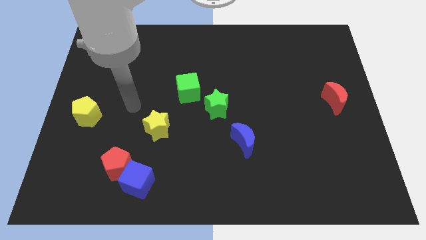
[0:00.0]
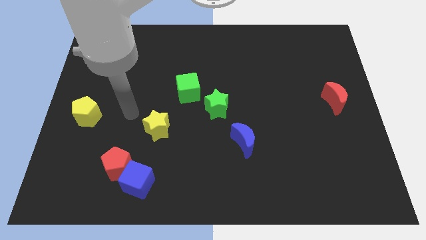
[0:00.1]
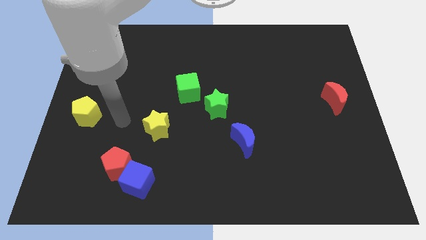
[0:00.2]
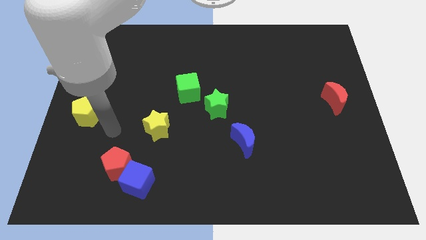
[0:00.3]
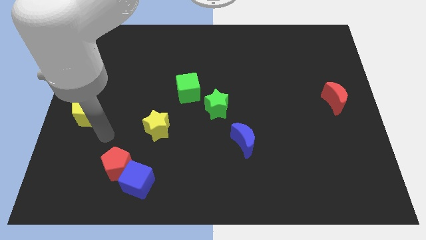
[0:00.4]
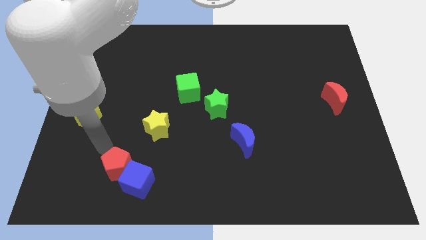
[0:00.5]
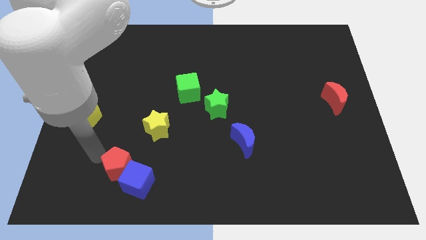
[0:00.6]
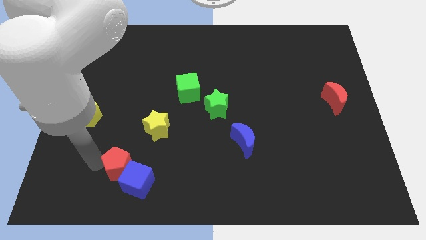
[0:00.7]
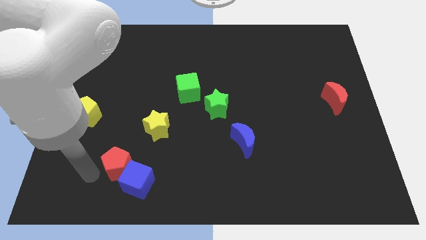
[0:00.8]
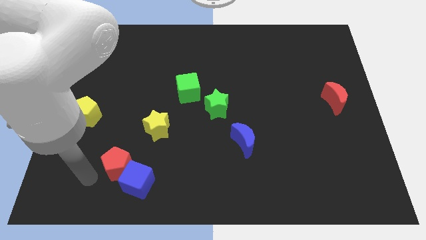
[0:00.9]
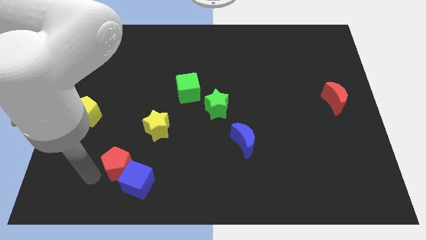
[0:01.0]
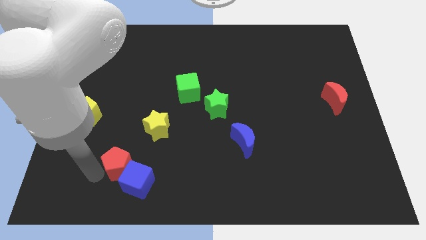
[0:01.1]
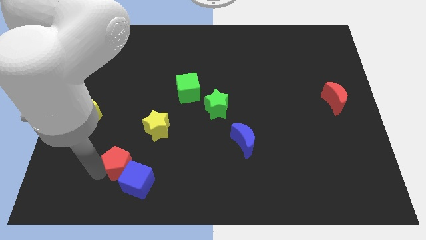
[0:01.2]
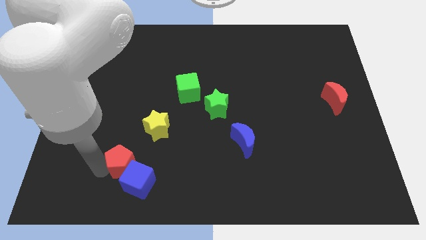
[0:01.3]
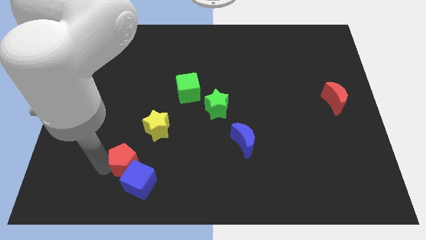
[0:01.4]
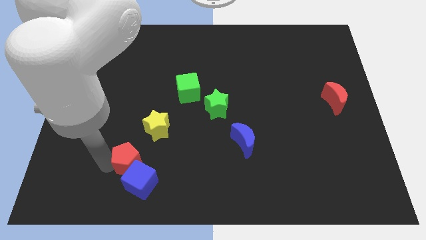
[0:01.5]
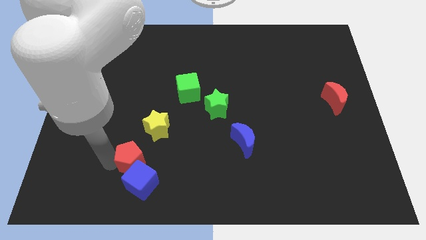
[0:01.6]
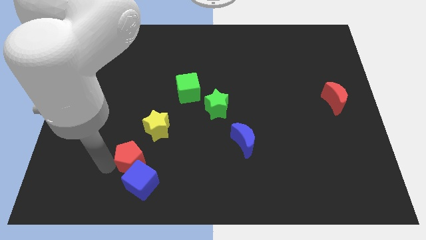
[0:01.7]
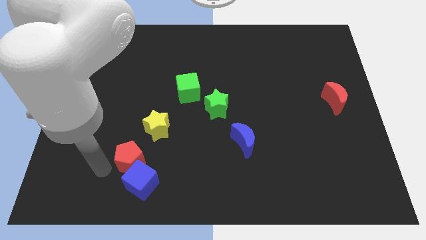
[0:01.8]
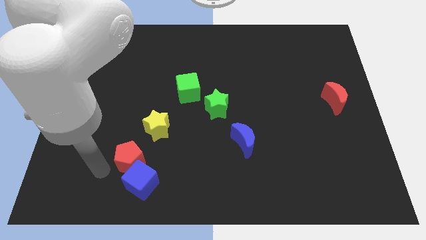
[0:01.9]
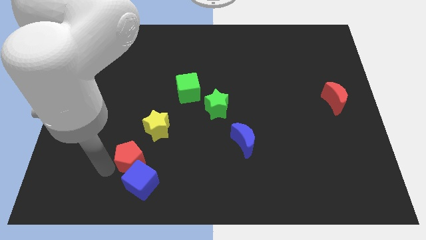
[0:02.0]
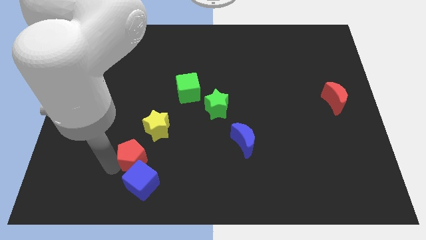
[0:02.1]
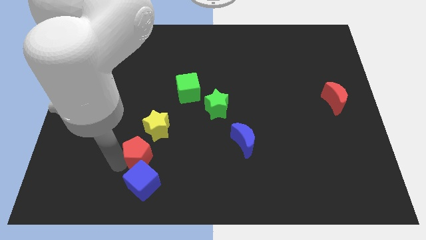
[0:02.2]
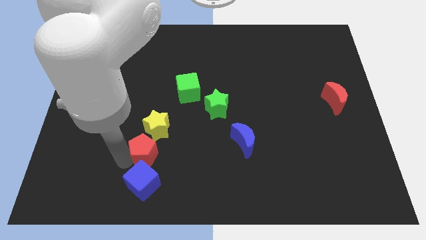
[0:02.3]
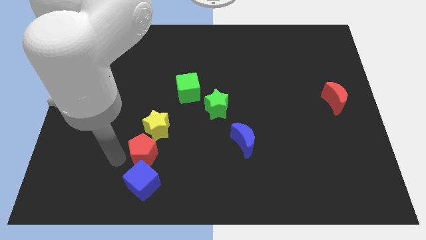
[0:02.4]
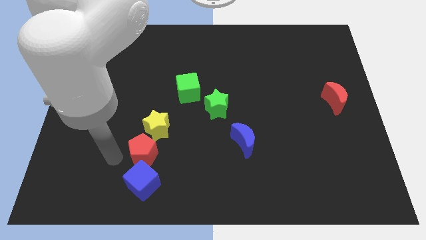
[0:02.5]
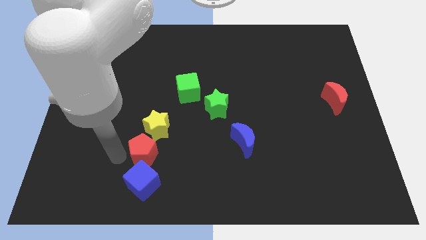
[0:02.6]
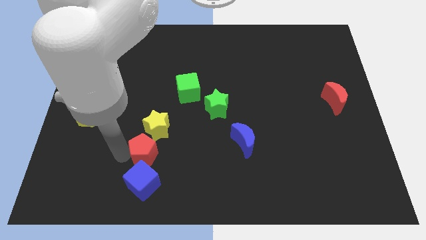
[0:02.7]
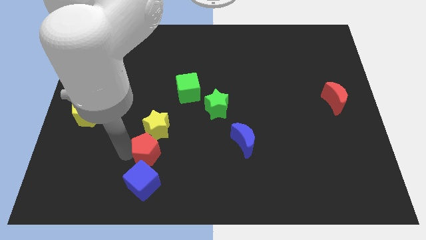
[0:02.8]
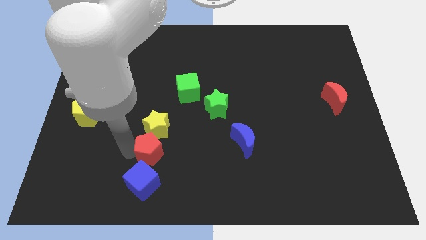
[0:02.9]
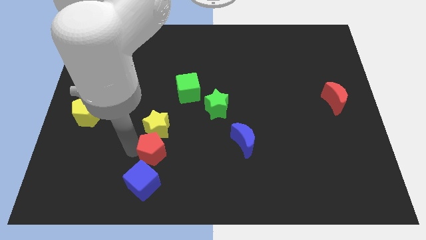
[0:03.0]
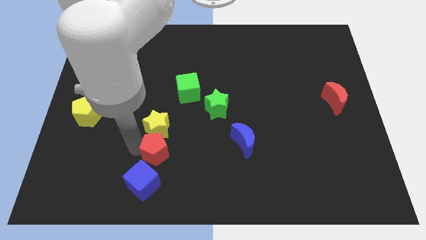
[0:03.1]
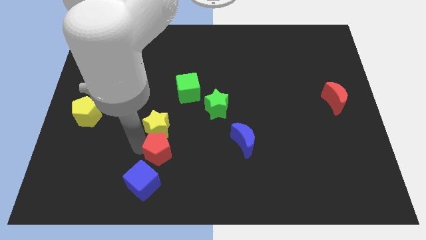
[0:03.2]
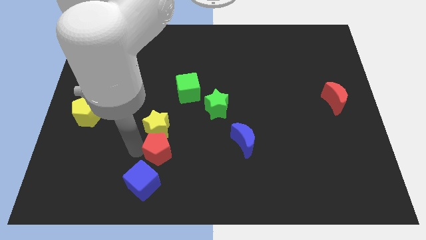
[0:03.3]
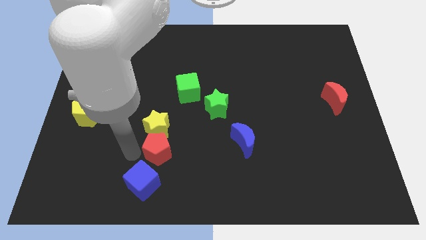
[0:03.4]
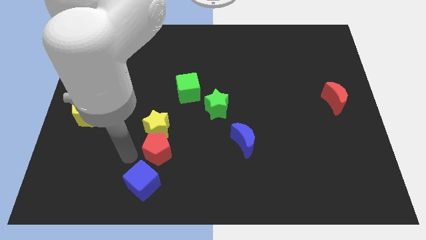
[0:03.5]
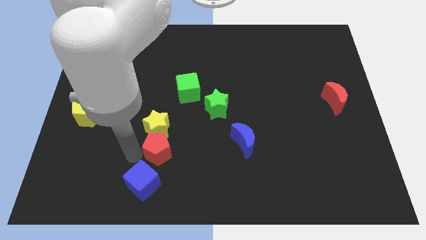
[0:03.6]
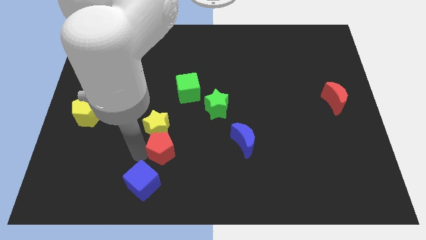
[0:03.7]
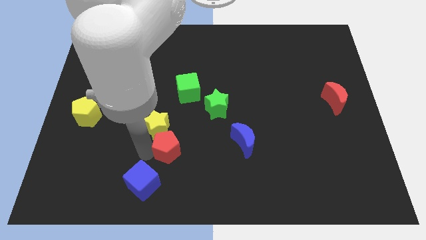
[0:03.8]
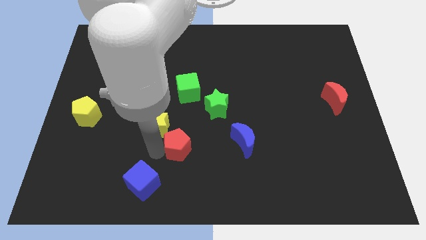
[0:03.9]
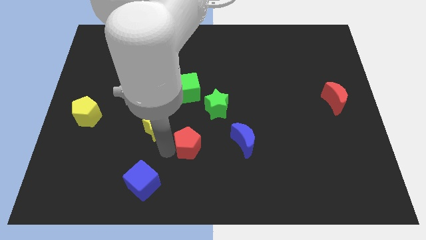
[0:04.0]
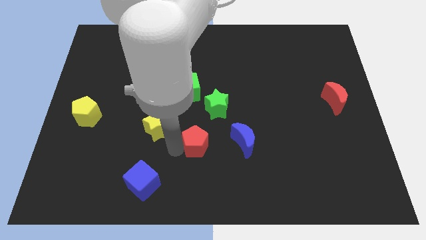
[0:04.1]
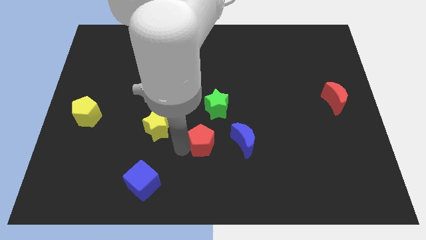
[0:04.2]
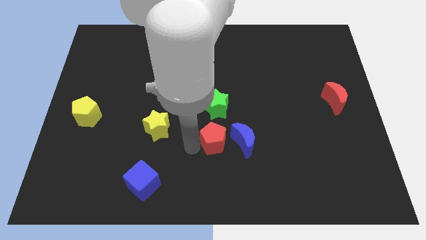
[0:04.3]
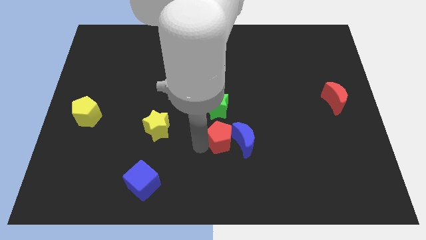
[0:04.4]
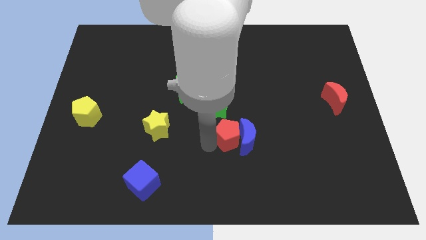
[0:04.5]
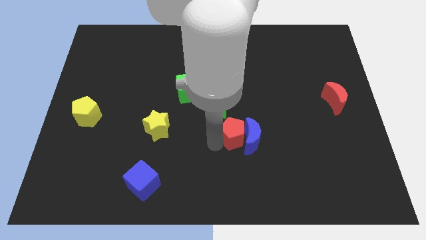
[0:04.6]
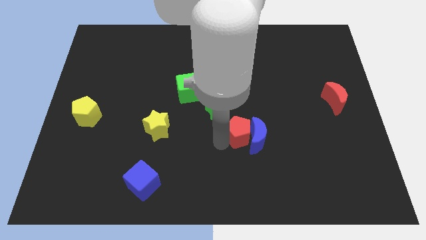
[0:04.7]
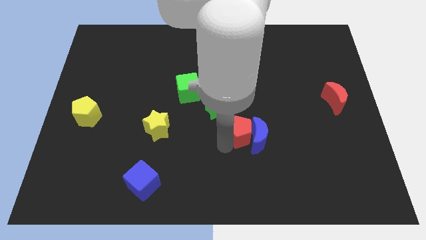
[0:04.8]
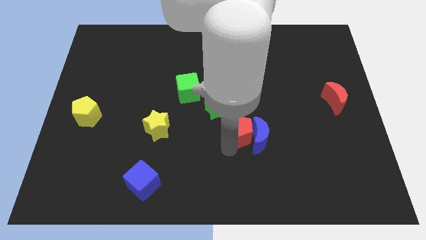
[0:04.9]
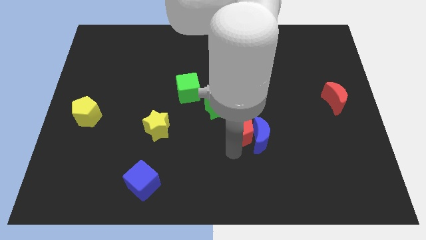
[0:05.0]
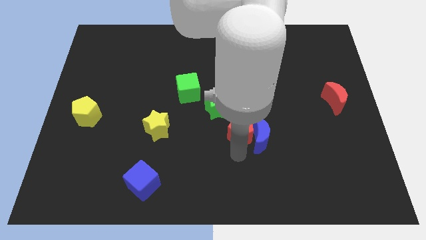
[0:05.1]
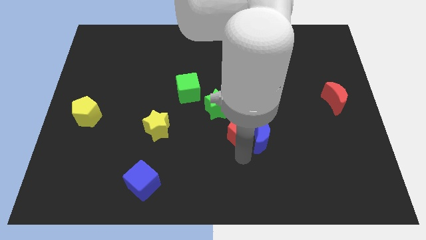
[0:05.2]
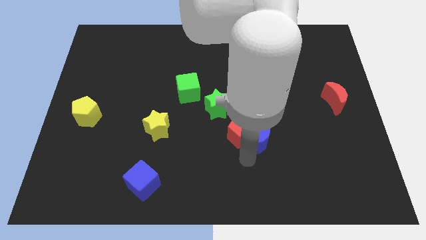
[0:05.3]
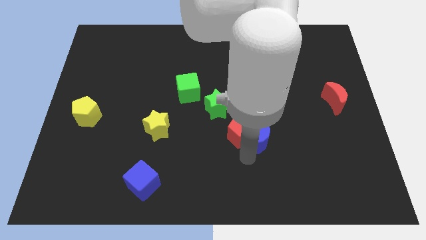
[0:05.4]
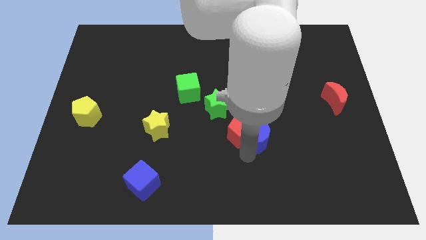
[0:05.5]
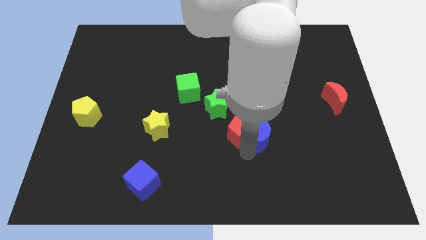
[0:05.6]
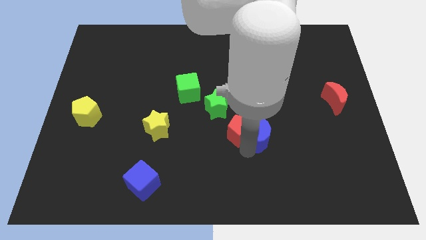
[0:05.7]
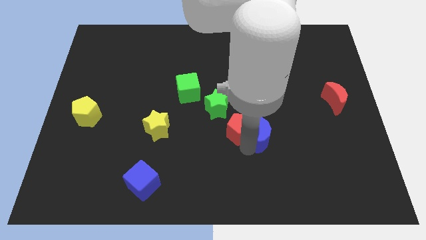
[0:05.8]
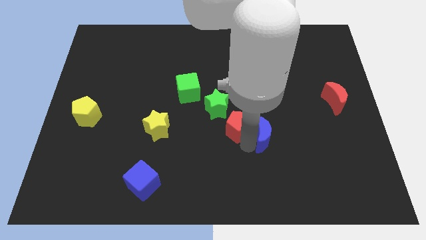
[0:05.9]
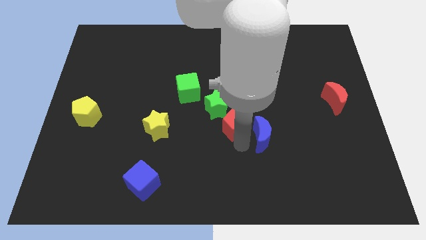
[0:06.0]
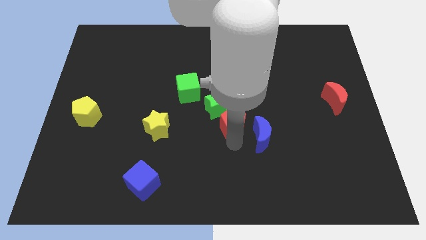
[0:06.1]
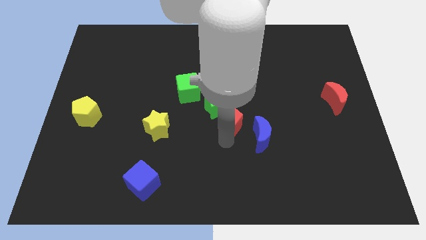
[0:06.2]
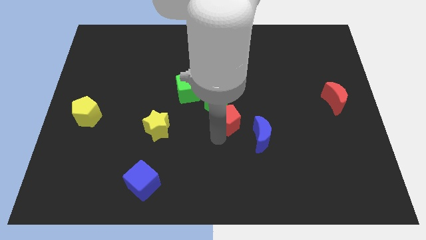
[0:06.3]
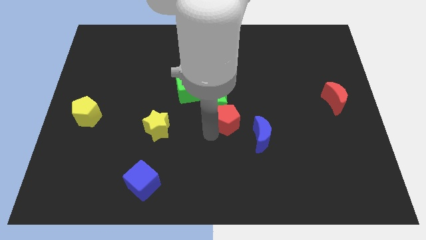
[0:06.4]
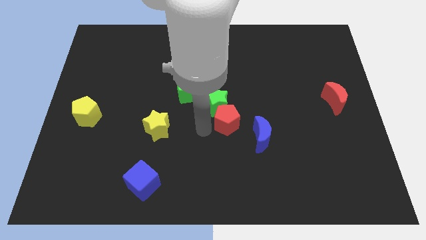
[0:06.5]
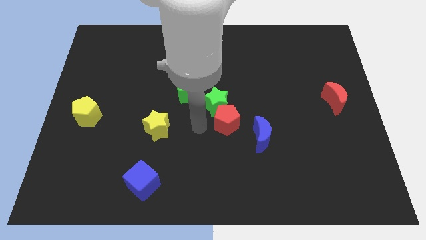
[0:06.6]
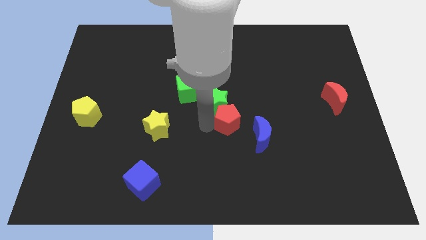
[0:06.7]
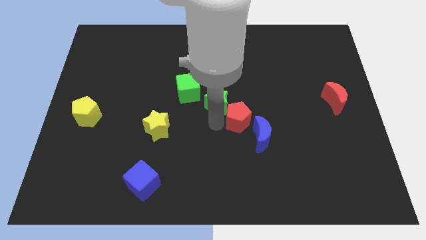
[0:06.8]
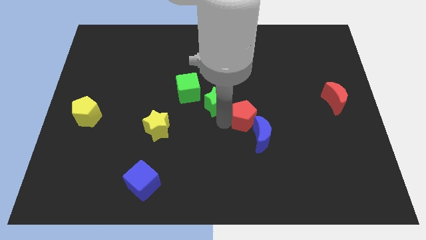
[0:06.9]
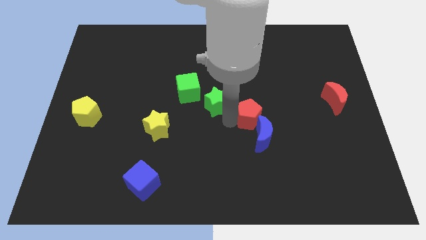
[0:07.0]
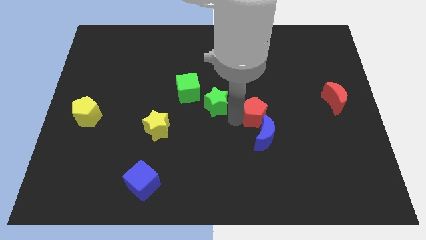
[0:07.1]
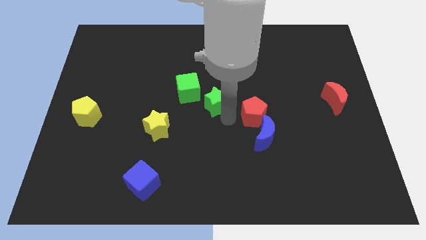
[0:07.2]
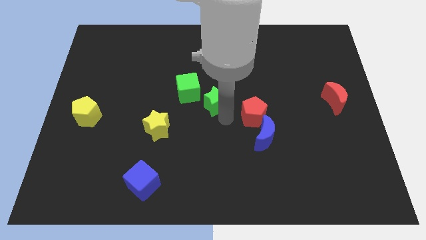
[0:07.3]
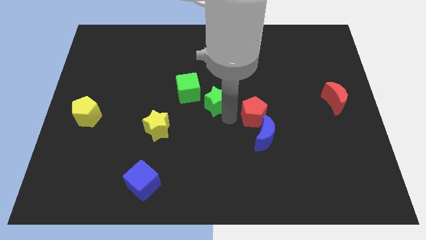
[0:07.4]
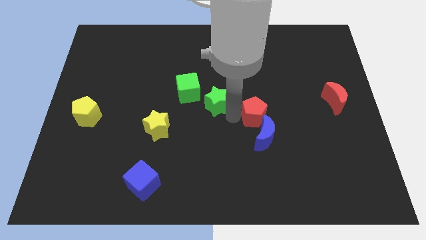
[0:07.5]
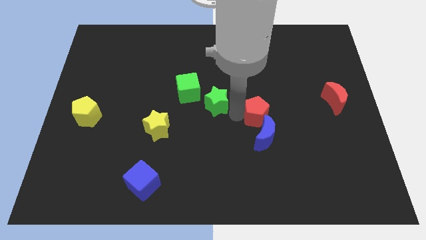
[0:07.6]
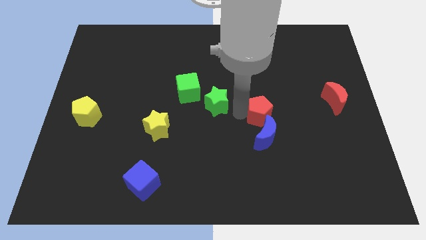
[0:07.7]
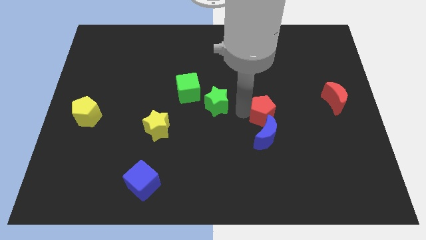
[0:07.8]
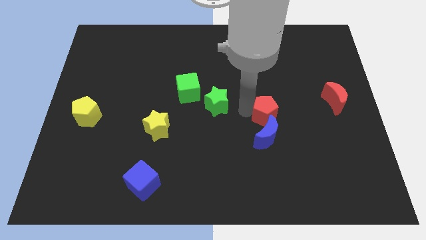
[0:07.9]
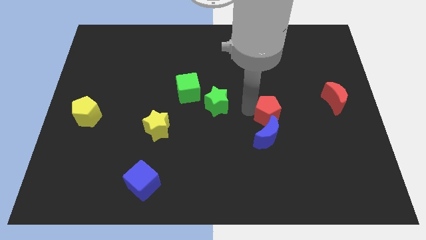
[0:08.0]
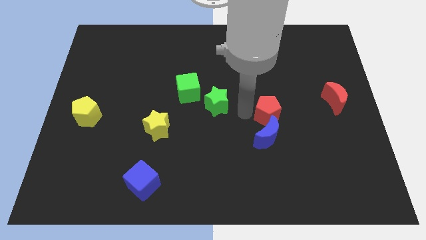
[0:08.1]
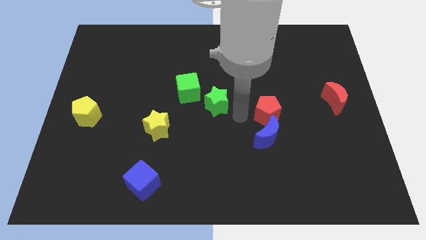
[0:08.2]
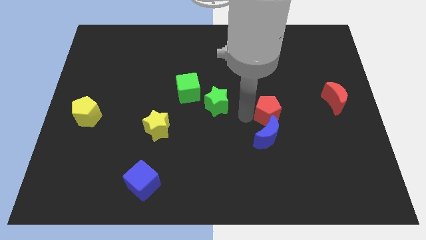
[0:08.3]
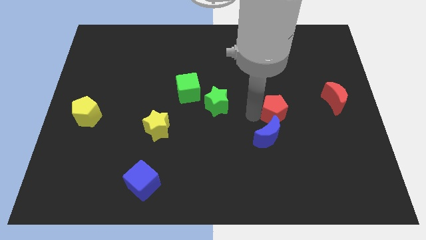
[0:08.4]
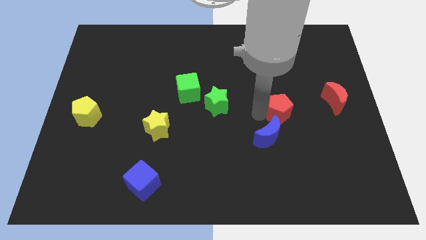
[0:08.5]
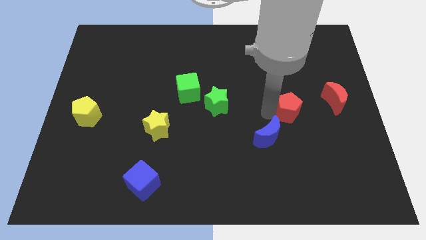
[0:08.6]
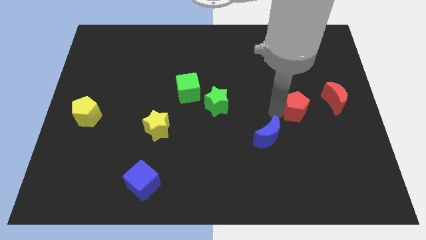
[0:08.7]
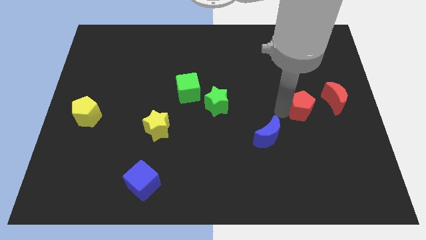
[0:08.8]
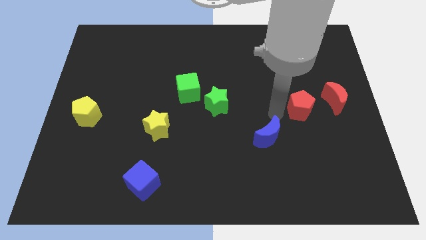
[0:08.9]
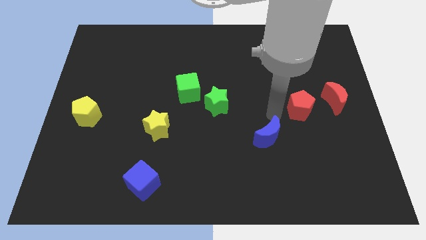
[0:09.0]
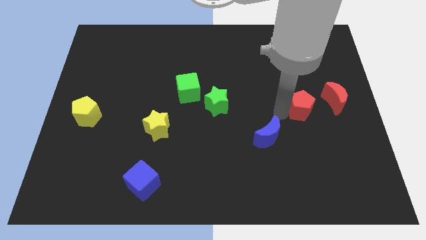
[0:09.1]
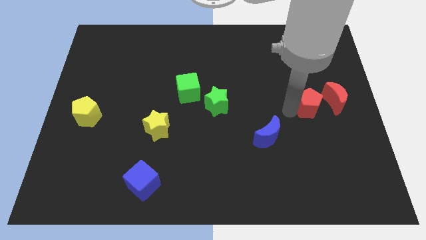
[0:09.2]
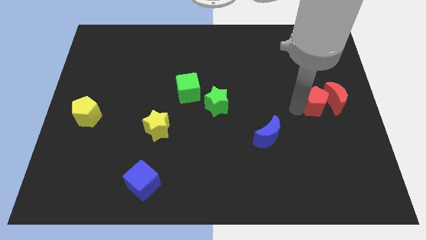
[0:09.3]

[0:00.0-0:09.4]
push the red pentagon next to the red moon
